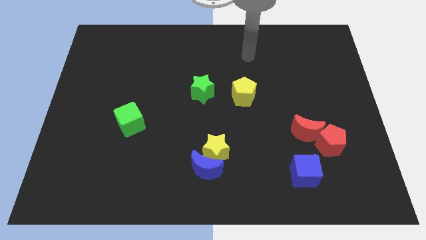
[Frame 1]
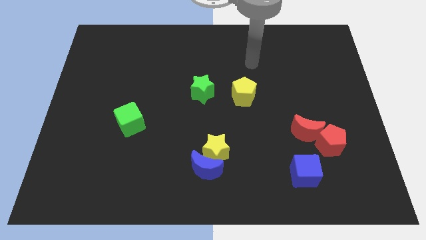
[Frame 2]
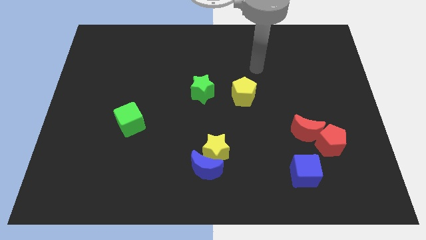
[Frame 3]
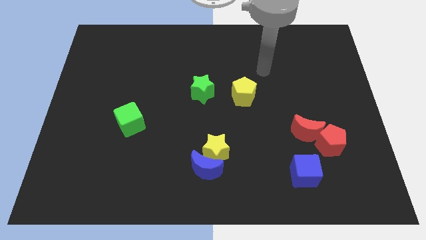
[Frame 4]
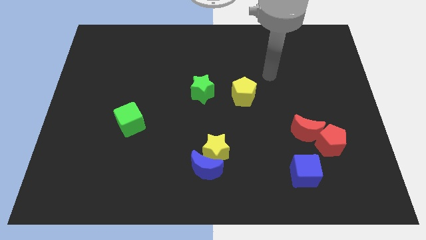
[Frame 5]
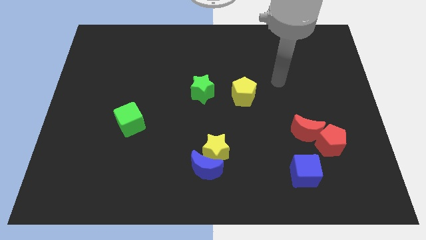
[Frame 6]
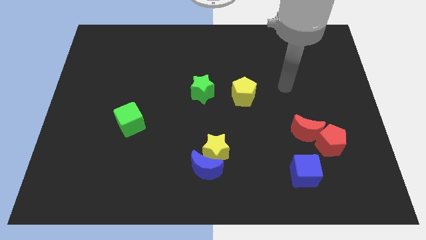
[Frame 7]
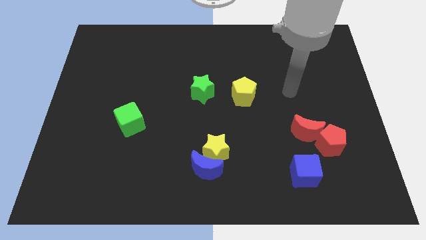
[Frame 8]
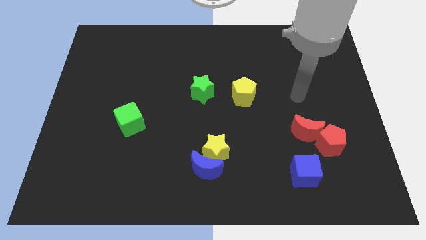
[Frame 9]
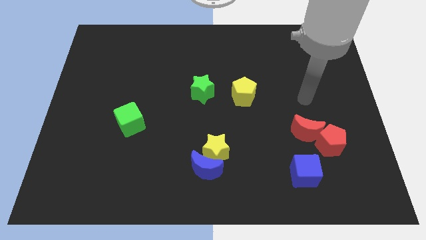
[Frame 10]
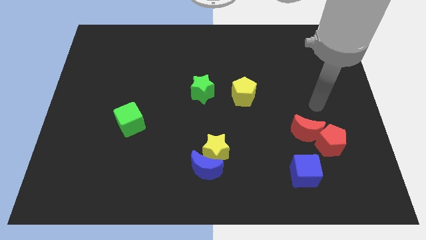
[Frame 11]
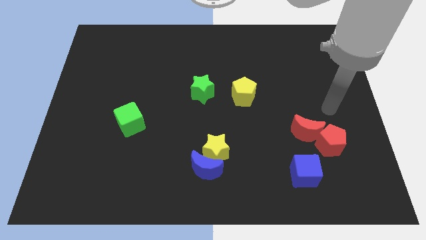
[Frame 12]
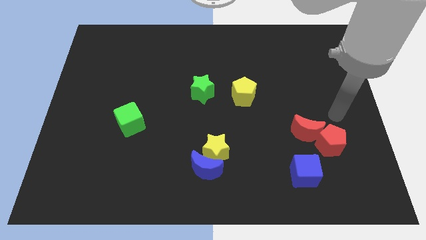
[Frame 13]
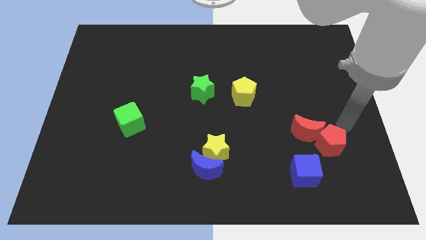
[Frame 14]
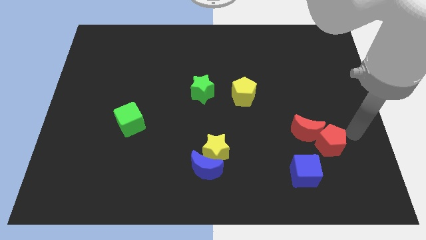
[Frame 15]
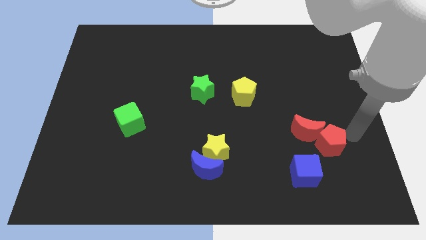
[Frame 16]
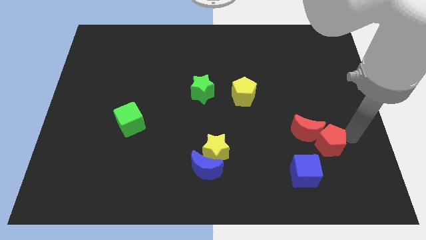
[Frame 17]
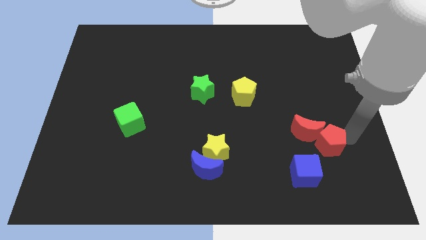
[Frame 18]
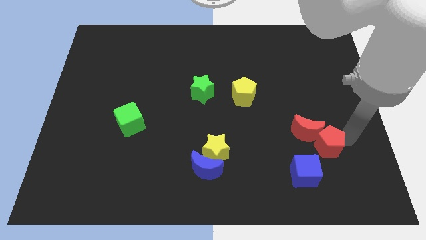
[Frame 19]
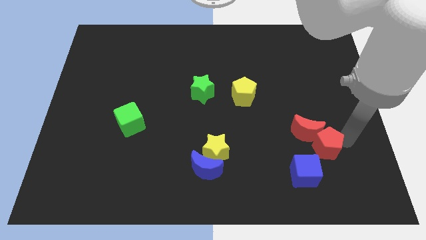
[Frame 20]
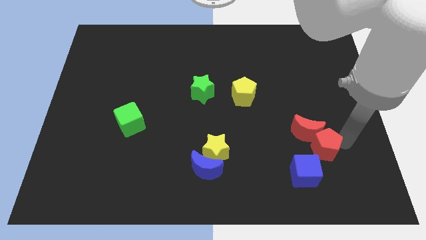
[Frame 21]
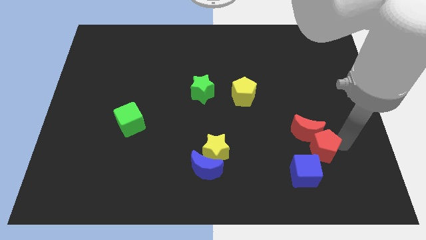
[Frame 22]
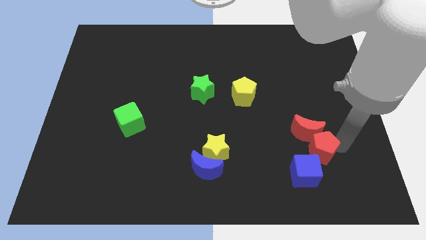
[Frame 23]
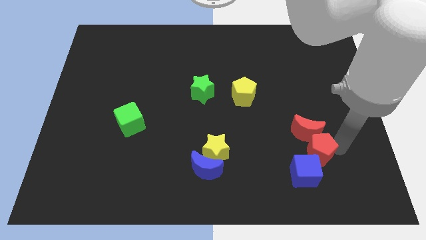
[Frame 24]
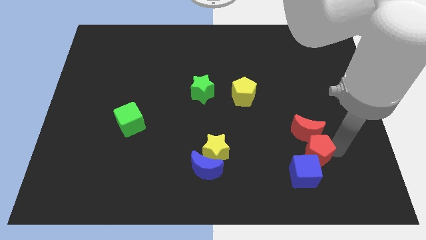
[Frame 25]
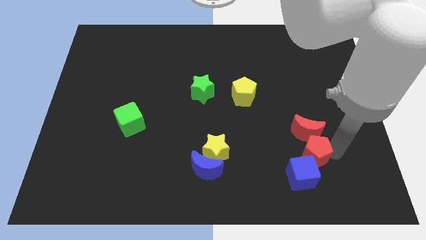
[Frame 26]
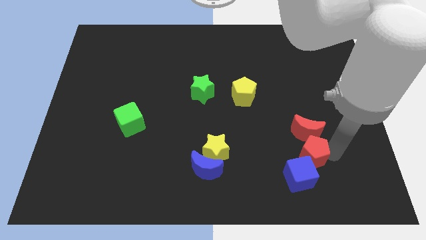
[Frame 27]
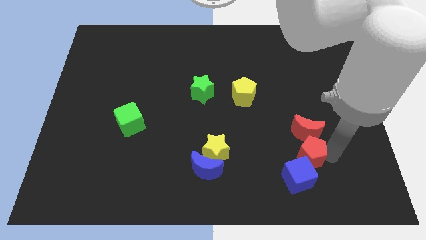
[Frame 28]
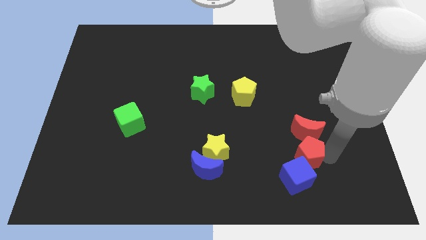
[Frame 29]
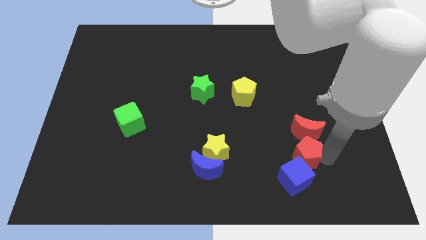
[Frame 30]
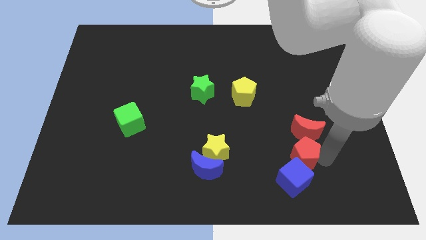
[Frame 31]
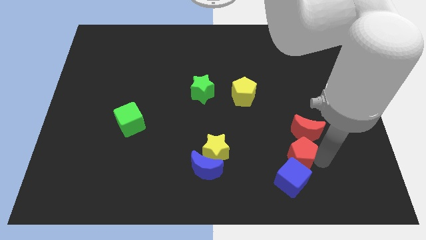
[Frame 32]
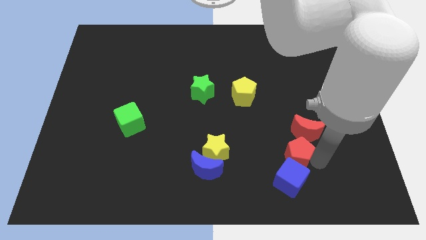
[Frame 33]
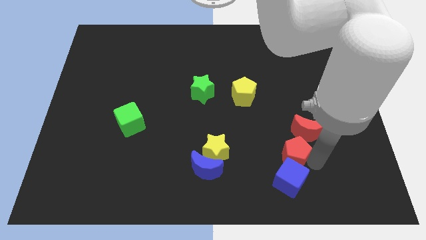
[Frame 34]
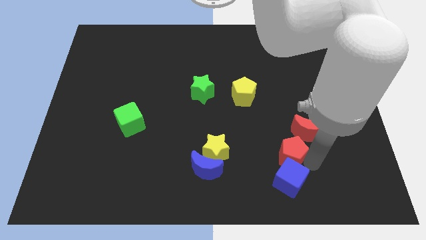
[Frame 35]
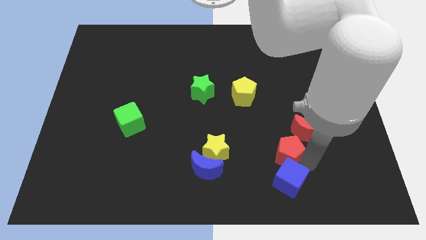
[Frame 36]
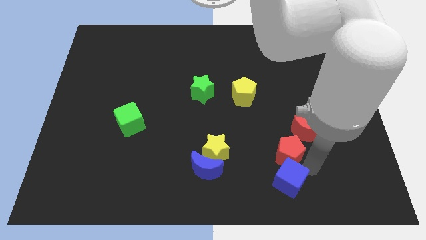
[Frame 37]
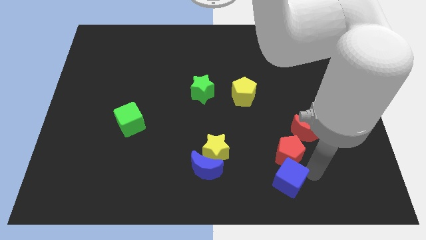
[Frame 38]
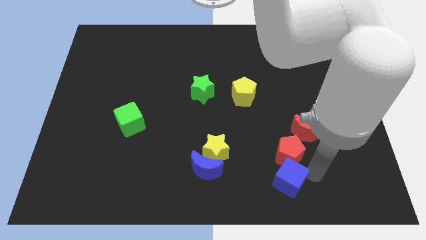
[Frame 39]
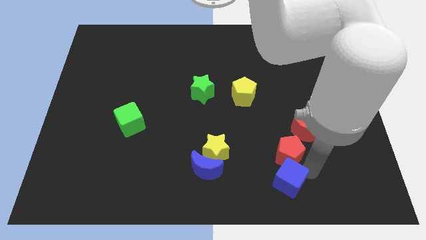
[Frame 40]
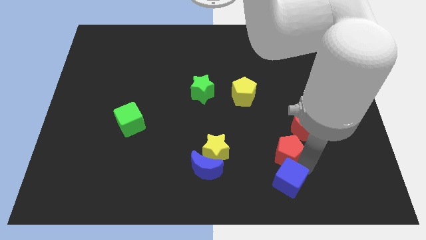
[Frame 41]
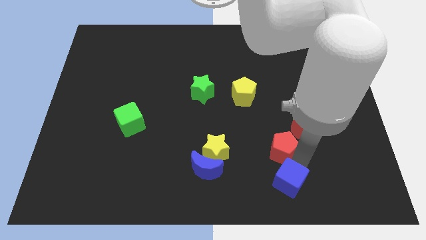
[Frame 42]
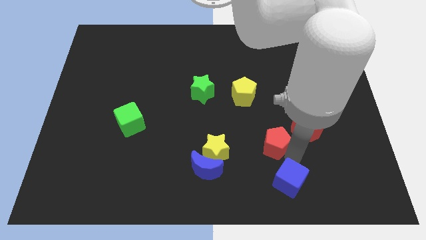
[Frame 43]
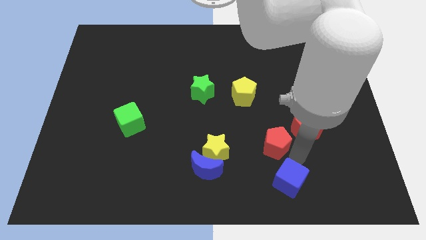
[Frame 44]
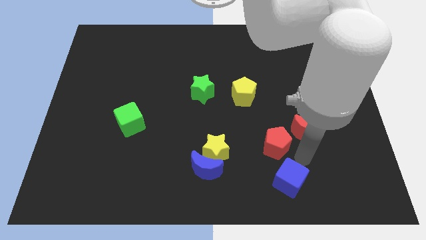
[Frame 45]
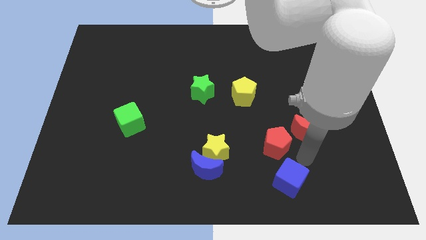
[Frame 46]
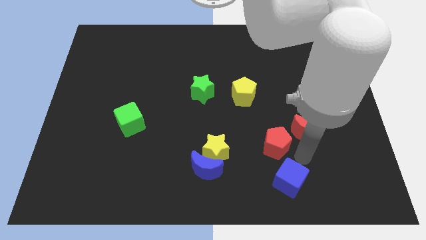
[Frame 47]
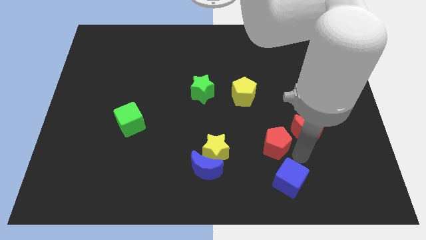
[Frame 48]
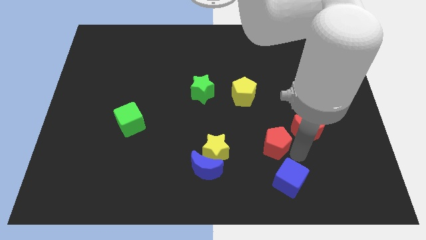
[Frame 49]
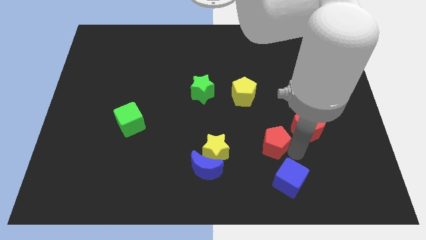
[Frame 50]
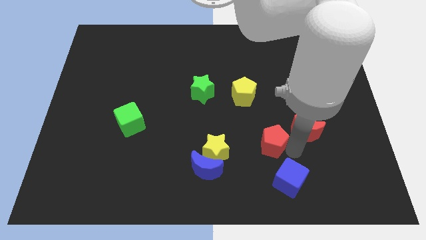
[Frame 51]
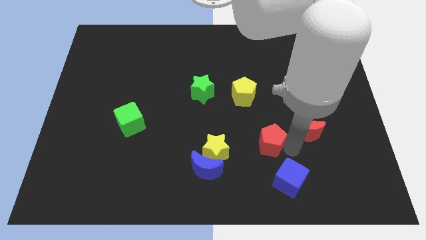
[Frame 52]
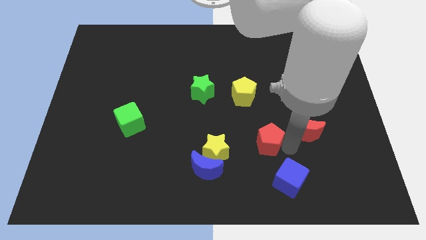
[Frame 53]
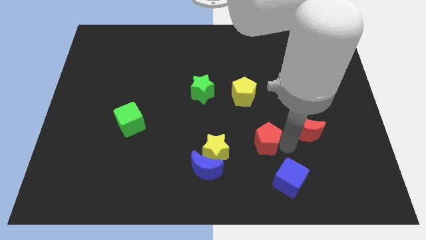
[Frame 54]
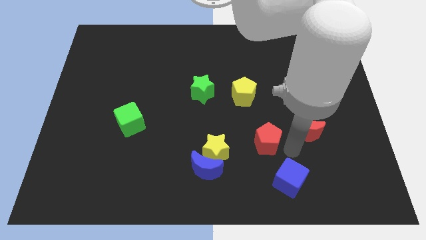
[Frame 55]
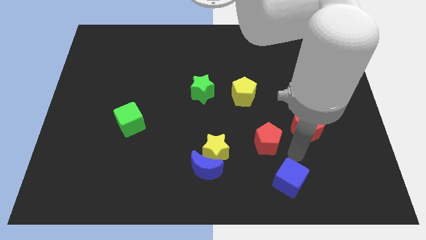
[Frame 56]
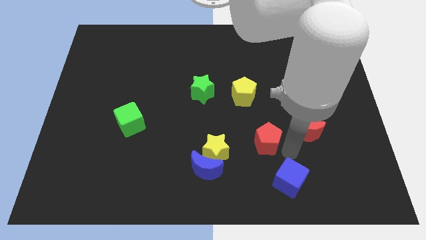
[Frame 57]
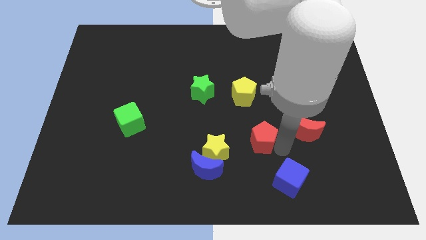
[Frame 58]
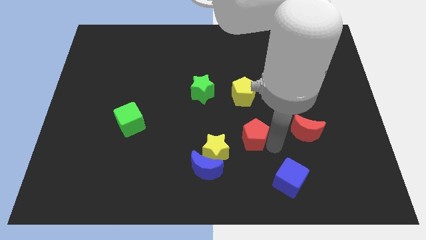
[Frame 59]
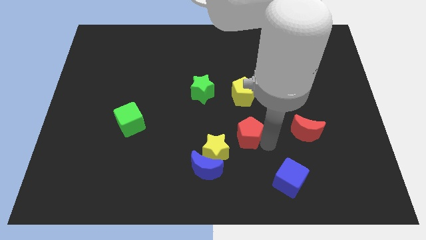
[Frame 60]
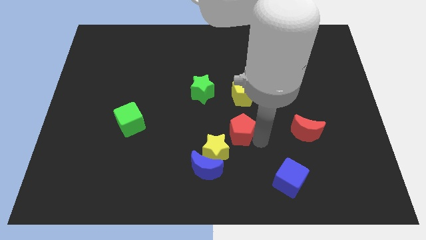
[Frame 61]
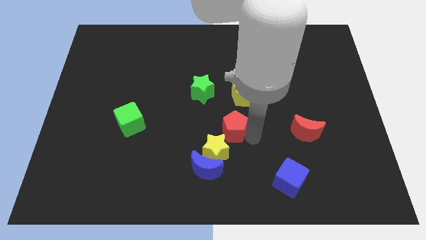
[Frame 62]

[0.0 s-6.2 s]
move the red pentagon left

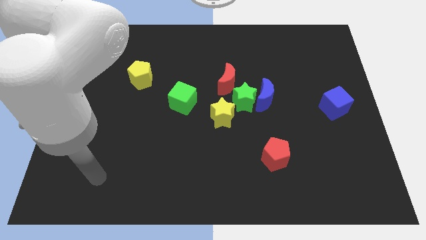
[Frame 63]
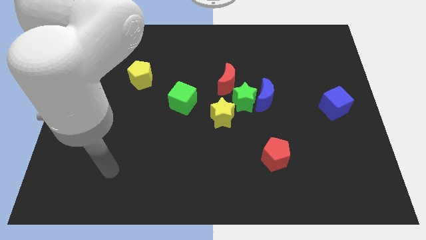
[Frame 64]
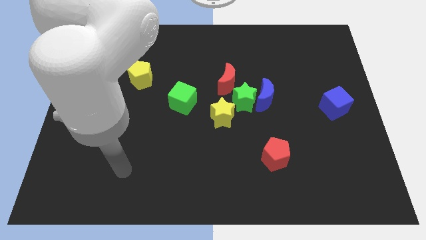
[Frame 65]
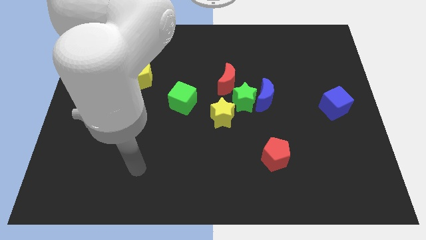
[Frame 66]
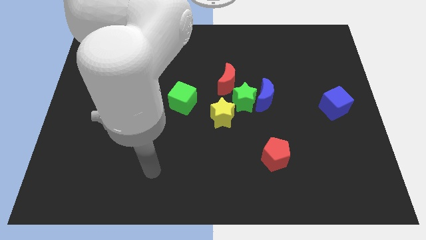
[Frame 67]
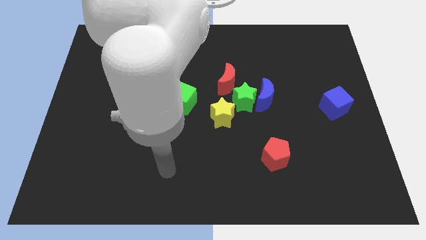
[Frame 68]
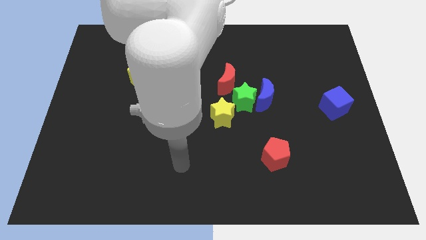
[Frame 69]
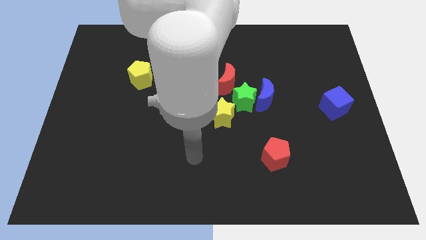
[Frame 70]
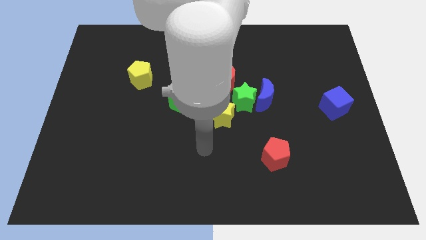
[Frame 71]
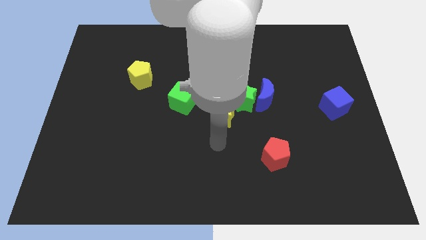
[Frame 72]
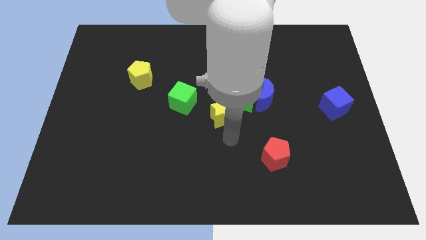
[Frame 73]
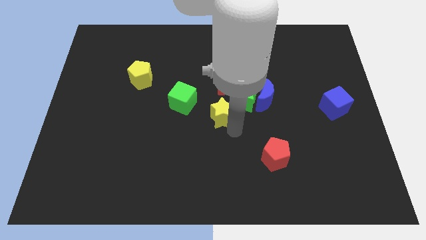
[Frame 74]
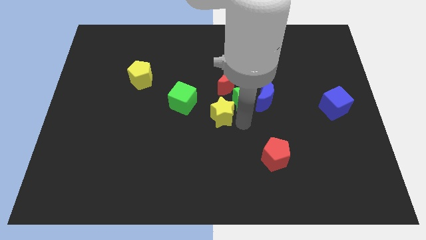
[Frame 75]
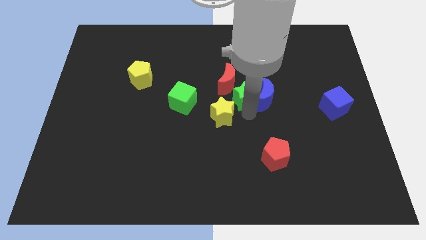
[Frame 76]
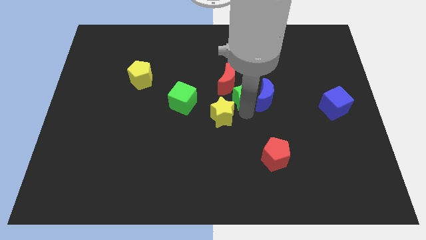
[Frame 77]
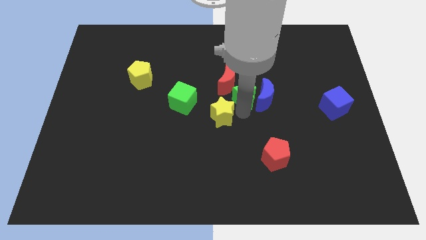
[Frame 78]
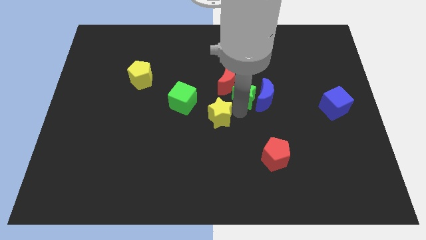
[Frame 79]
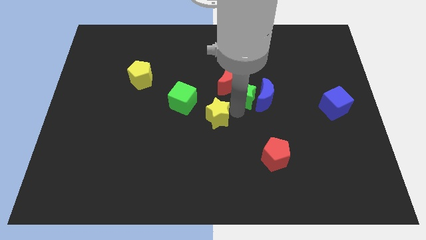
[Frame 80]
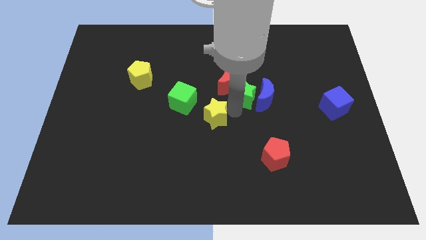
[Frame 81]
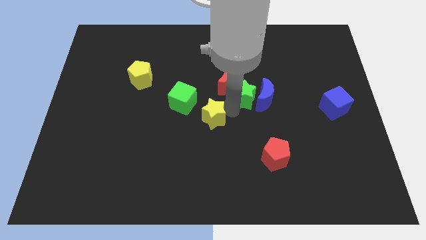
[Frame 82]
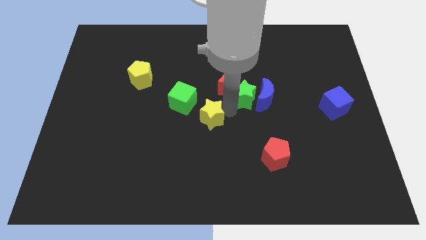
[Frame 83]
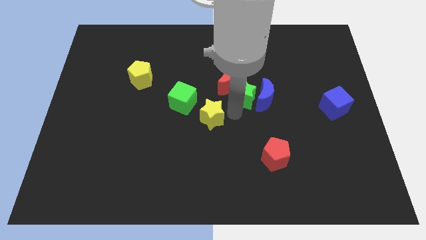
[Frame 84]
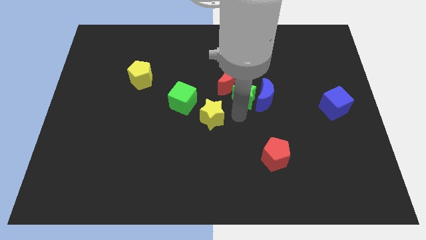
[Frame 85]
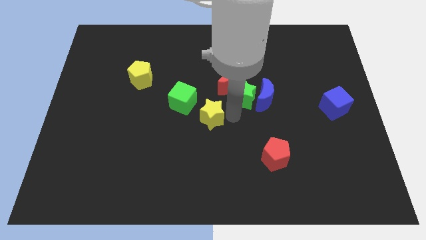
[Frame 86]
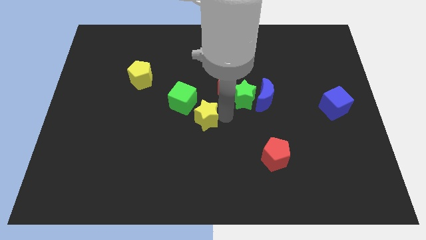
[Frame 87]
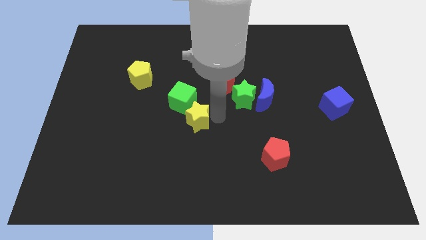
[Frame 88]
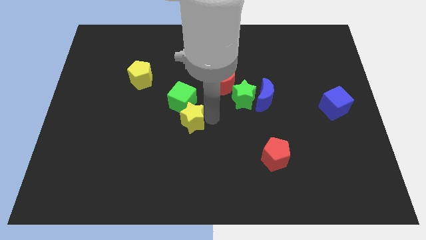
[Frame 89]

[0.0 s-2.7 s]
move the yellow star slightly left
